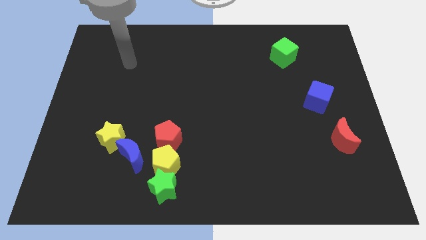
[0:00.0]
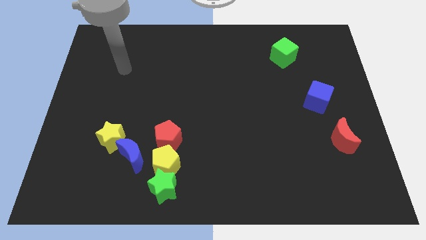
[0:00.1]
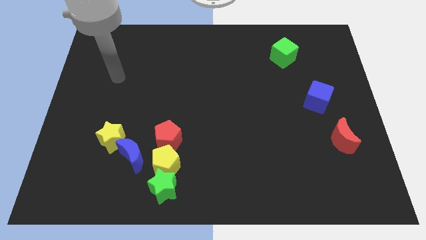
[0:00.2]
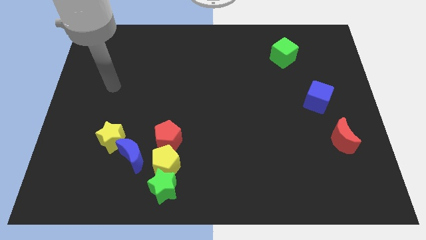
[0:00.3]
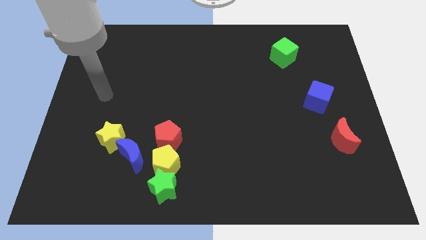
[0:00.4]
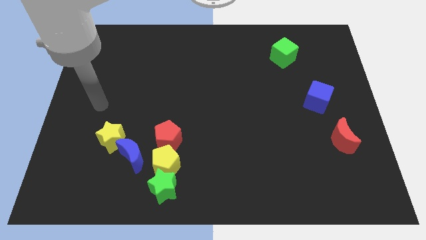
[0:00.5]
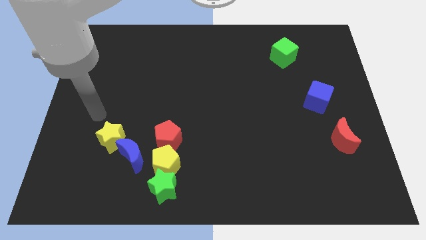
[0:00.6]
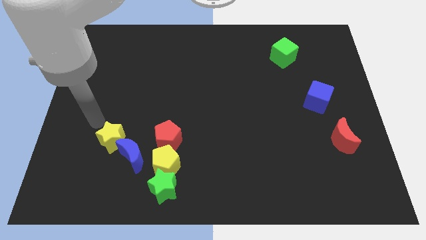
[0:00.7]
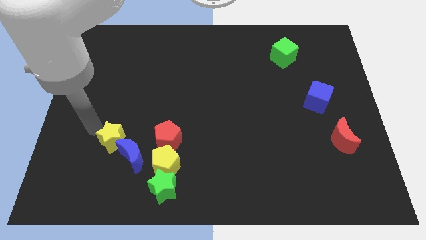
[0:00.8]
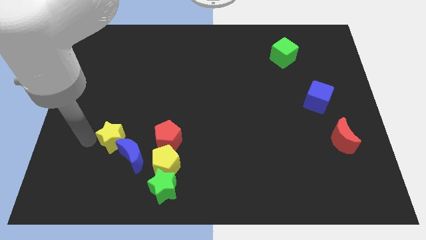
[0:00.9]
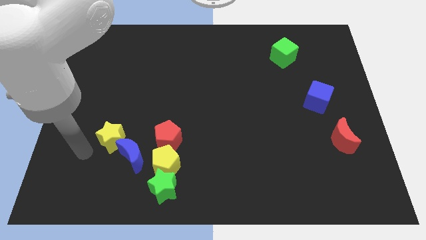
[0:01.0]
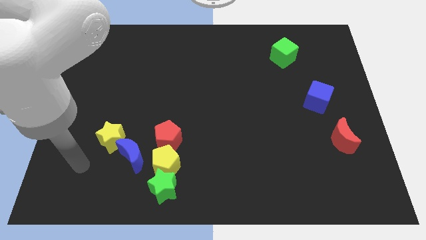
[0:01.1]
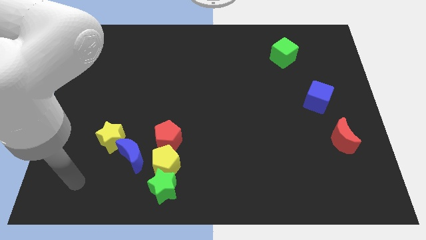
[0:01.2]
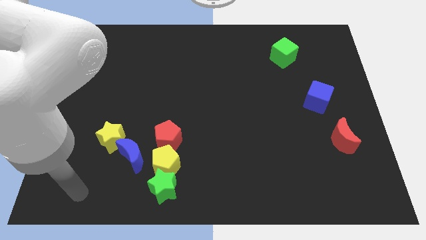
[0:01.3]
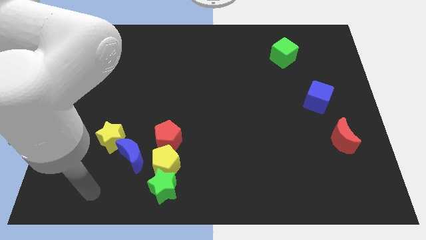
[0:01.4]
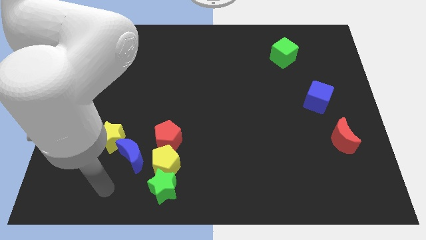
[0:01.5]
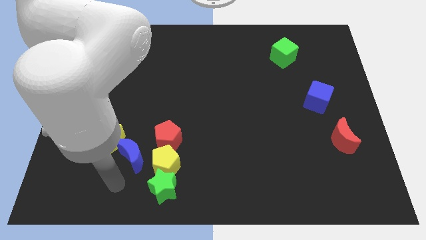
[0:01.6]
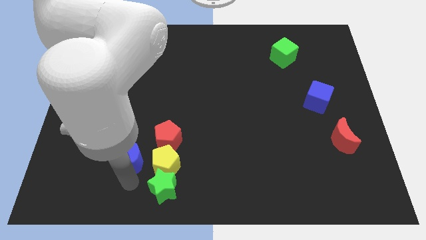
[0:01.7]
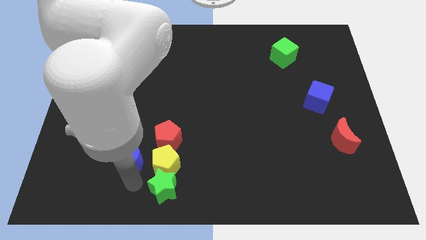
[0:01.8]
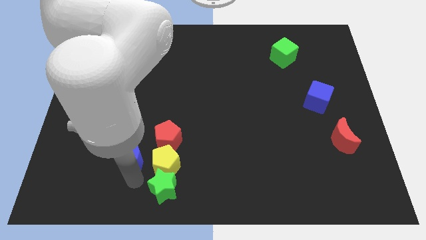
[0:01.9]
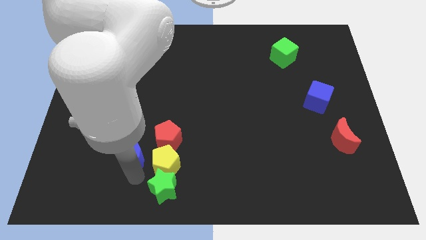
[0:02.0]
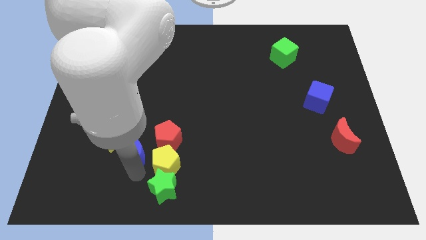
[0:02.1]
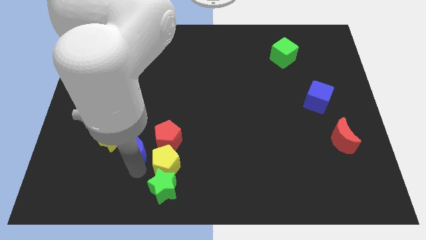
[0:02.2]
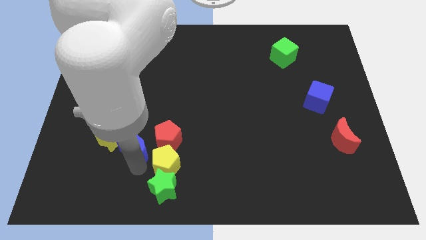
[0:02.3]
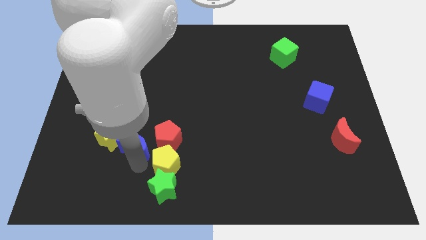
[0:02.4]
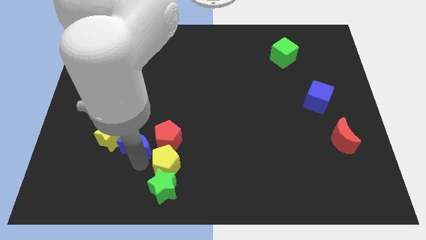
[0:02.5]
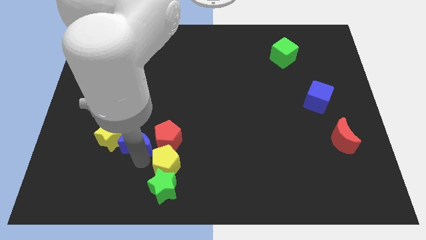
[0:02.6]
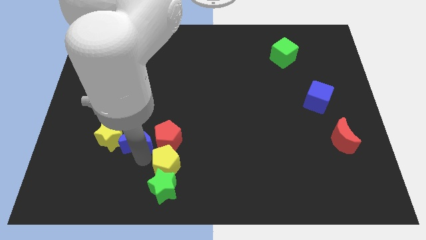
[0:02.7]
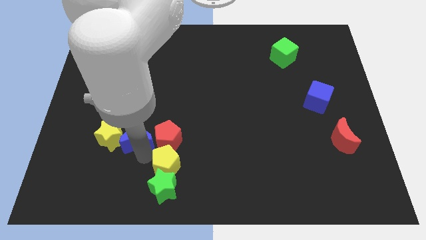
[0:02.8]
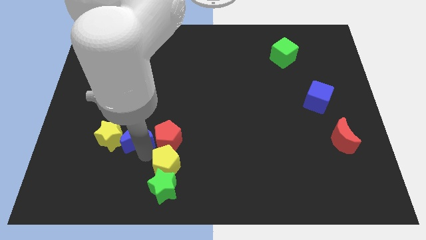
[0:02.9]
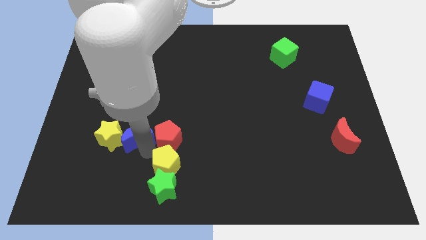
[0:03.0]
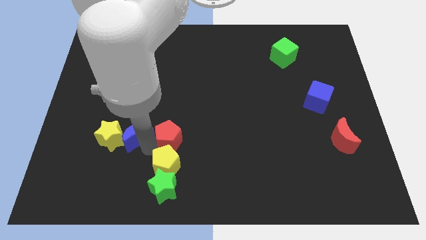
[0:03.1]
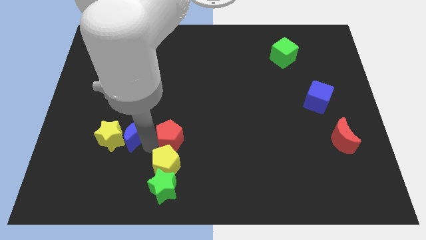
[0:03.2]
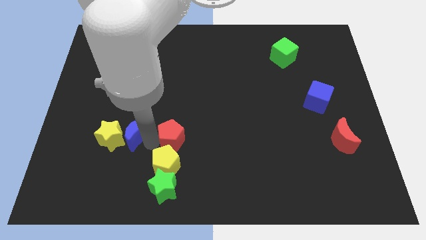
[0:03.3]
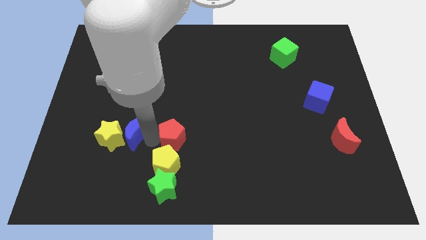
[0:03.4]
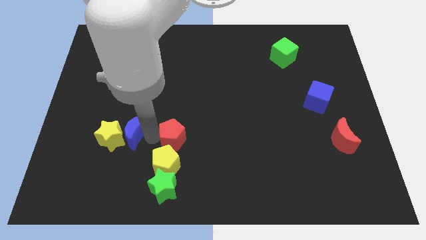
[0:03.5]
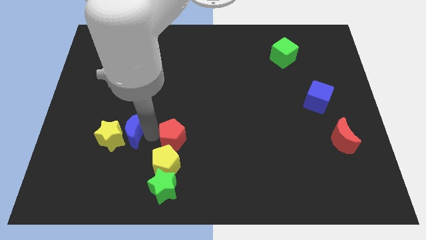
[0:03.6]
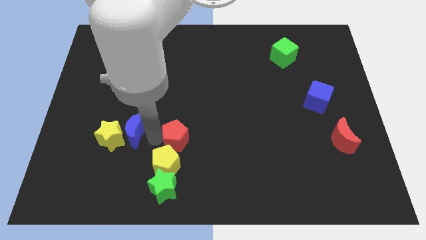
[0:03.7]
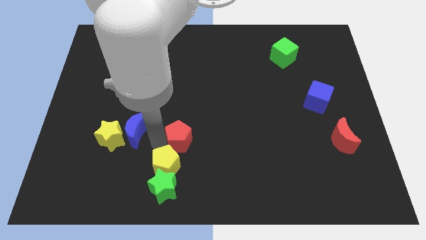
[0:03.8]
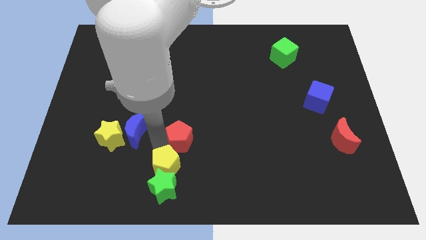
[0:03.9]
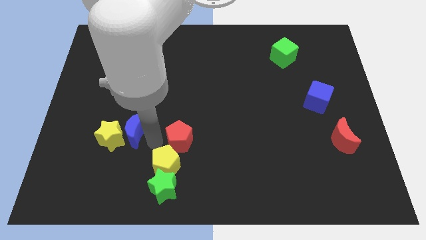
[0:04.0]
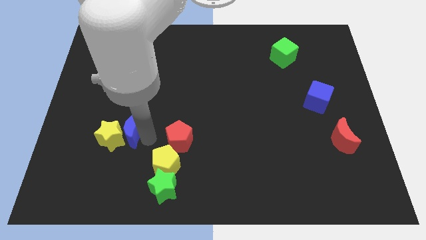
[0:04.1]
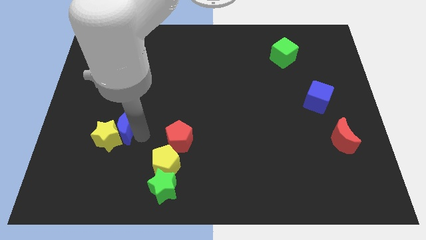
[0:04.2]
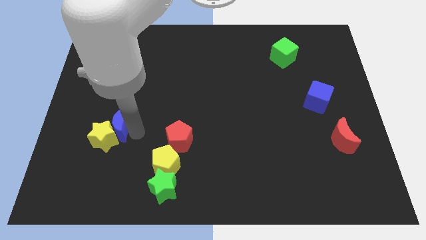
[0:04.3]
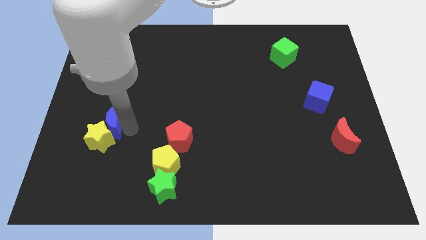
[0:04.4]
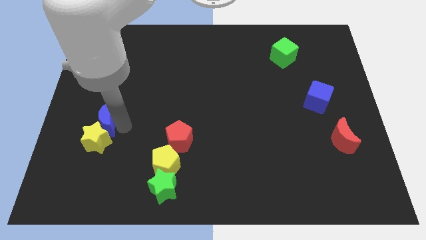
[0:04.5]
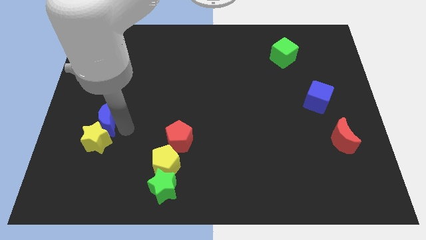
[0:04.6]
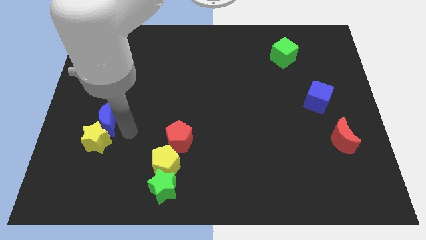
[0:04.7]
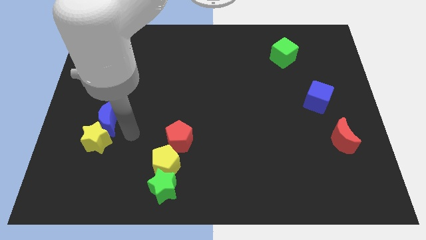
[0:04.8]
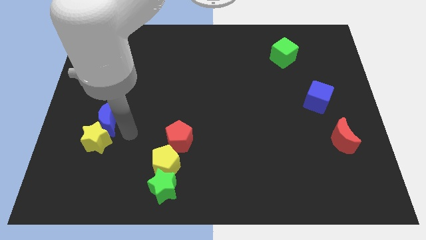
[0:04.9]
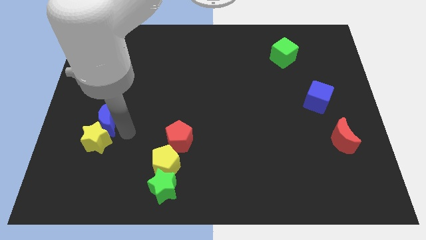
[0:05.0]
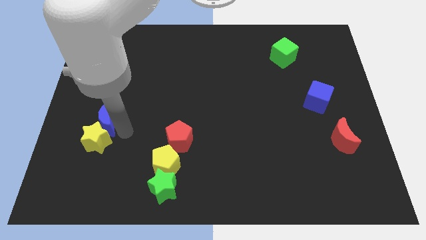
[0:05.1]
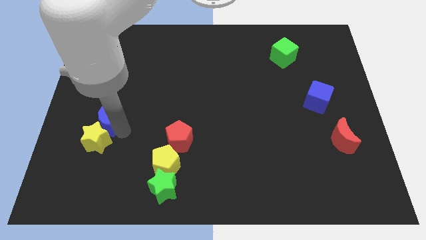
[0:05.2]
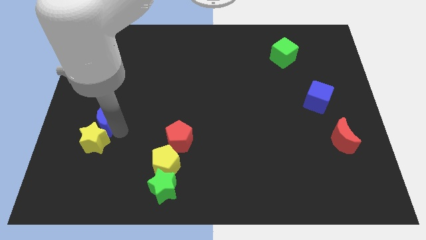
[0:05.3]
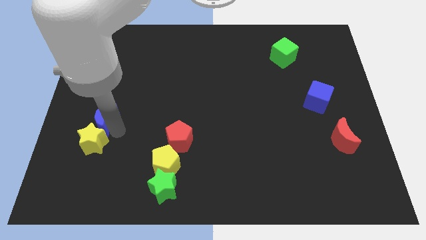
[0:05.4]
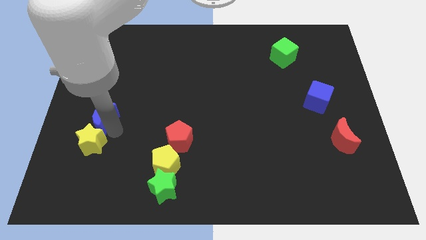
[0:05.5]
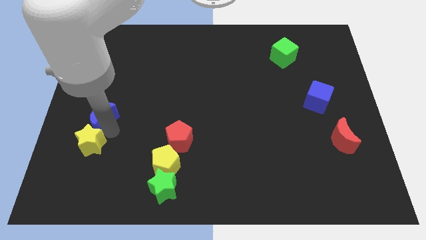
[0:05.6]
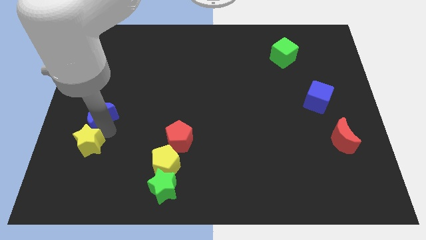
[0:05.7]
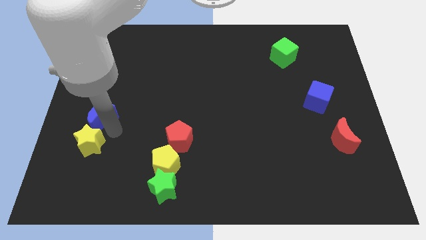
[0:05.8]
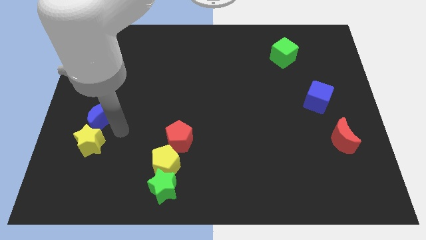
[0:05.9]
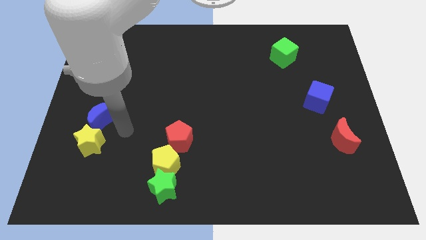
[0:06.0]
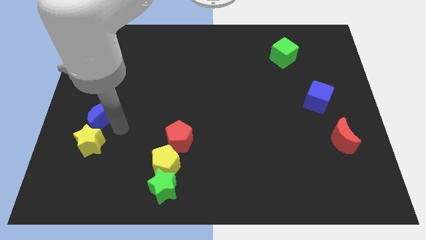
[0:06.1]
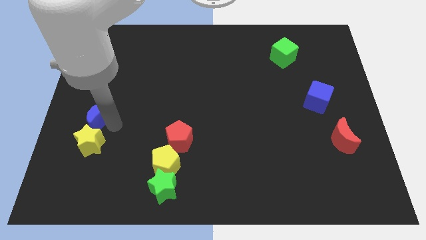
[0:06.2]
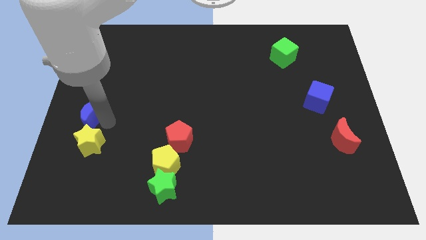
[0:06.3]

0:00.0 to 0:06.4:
move the blue moon to the center left
